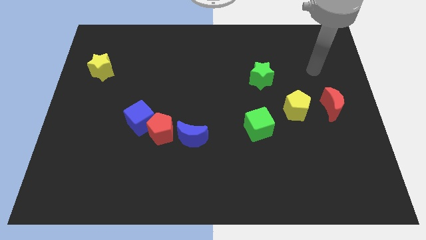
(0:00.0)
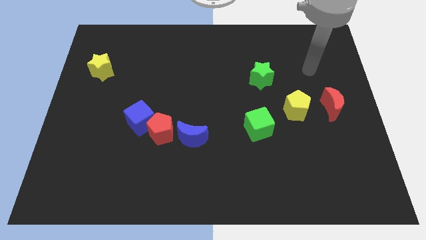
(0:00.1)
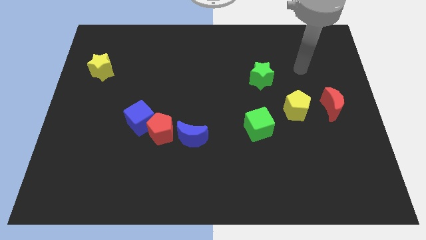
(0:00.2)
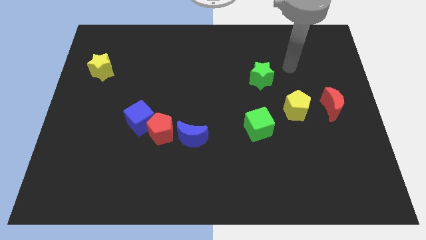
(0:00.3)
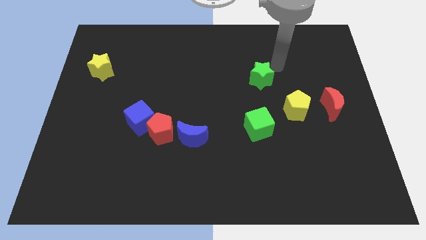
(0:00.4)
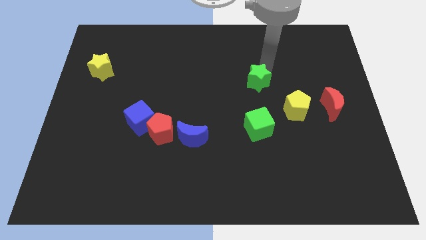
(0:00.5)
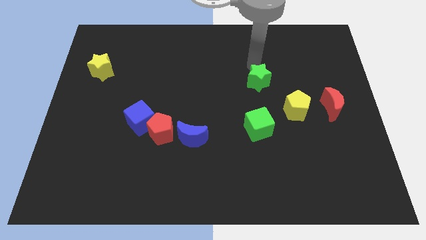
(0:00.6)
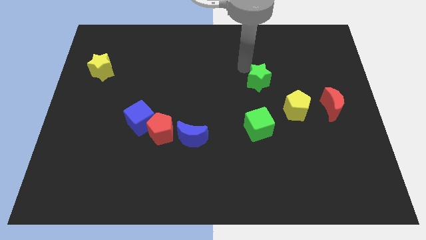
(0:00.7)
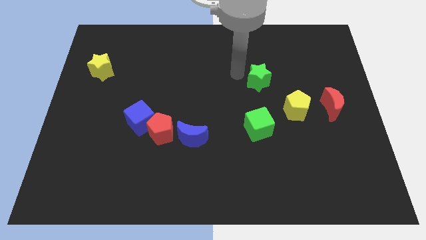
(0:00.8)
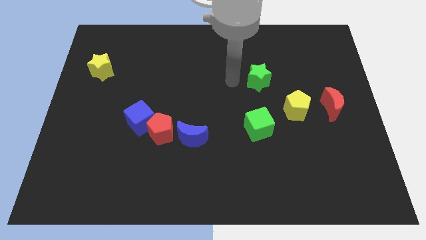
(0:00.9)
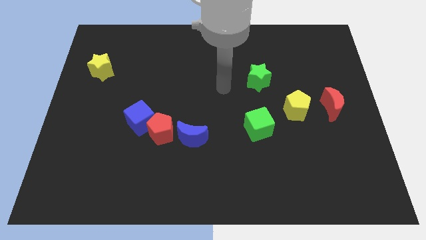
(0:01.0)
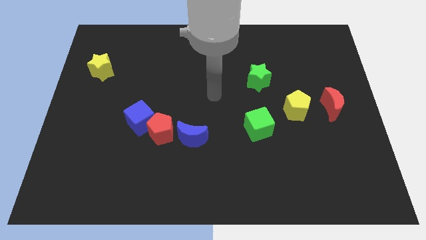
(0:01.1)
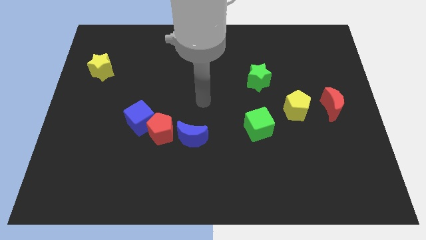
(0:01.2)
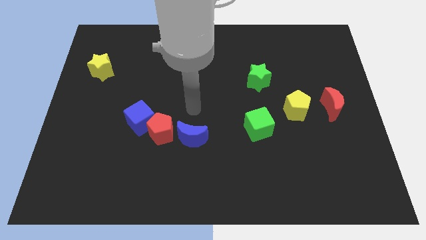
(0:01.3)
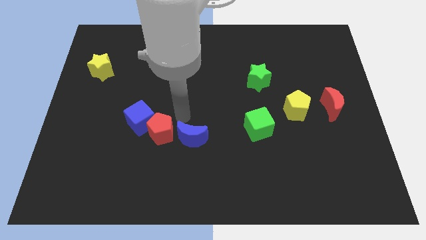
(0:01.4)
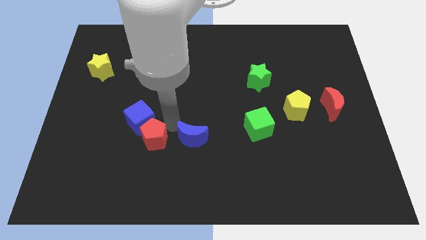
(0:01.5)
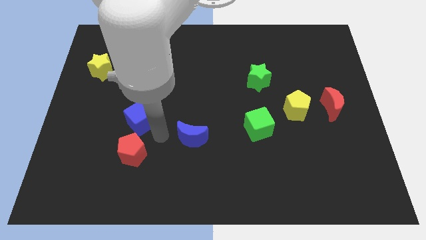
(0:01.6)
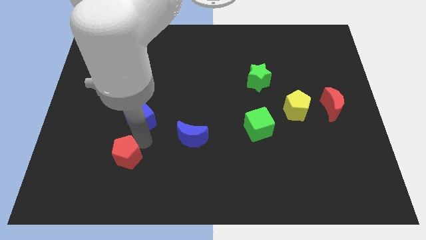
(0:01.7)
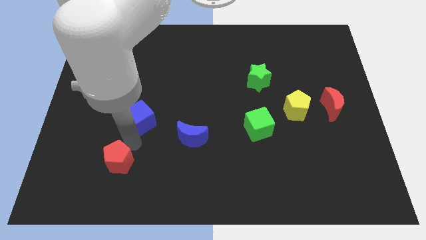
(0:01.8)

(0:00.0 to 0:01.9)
pull the blue cube apart from the red pentagon

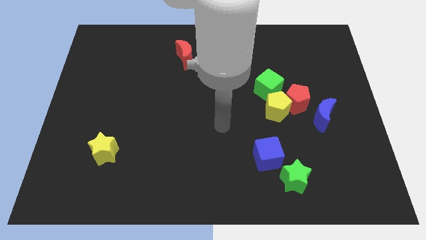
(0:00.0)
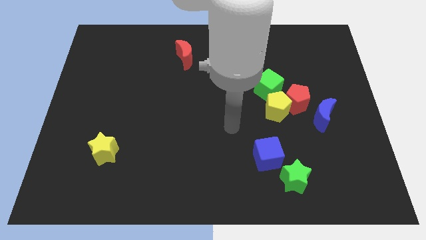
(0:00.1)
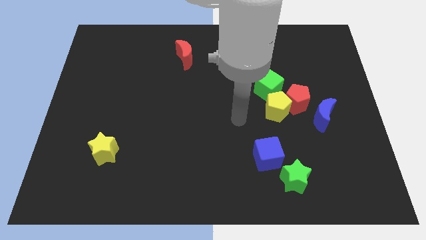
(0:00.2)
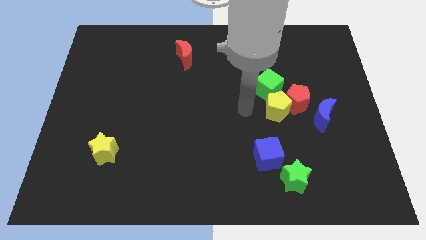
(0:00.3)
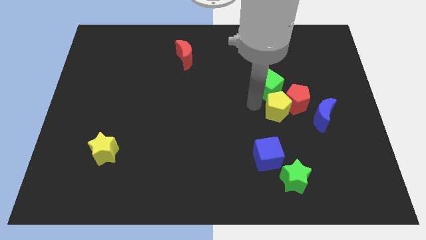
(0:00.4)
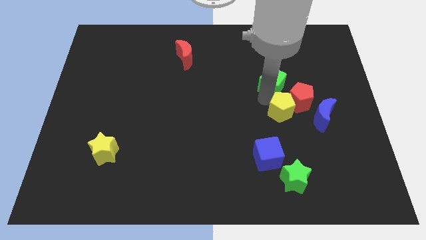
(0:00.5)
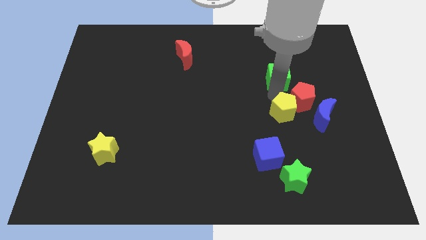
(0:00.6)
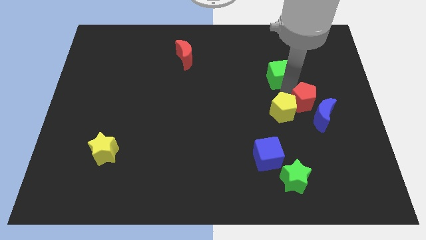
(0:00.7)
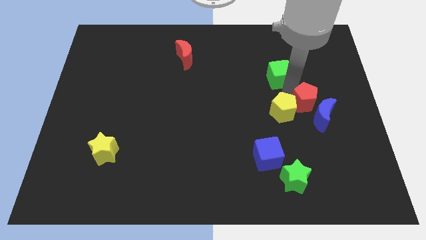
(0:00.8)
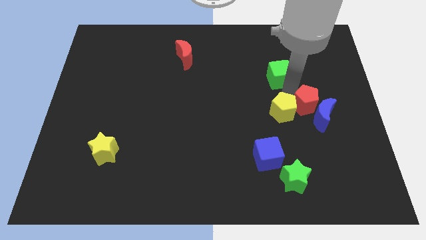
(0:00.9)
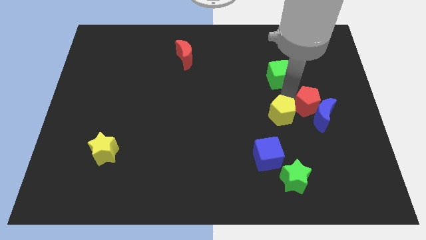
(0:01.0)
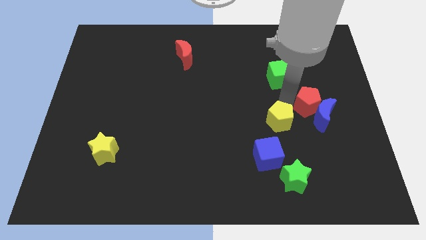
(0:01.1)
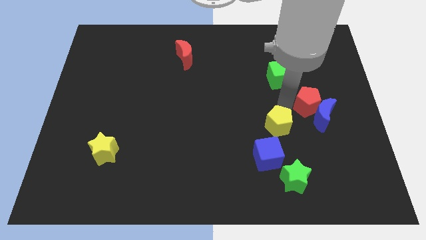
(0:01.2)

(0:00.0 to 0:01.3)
move the yellow pentagon away from the red pentagon and green cube

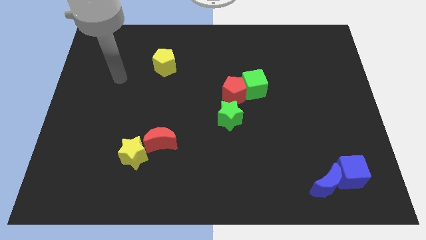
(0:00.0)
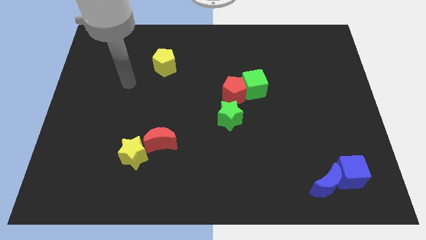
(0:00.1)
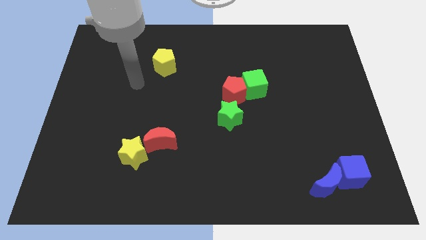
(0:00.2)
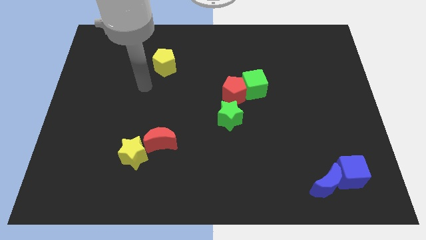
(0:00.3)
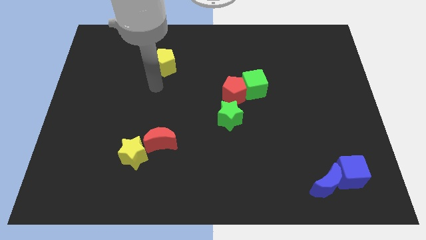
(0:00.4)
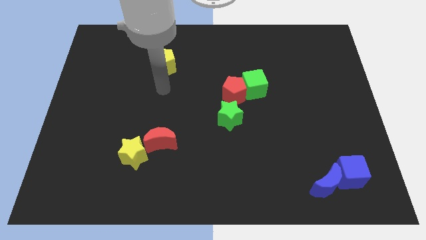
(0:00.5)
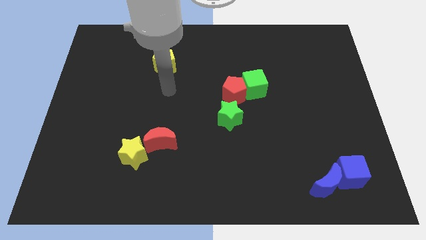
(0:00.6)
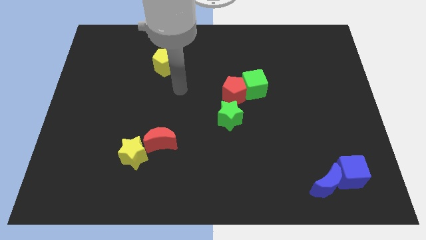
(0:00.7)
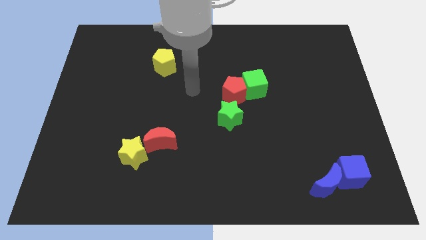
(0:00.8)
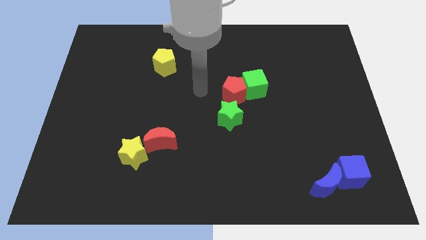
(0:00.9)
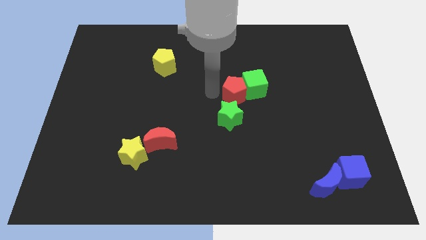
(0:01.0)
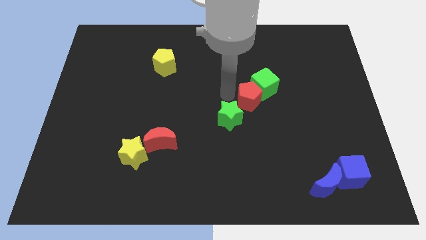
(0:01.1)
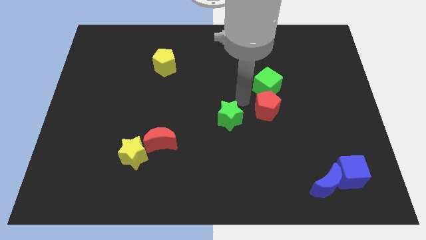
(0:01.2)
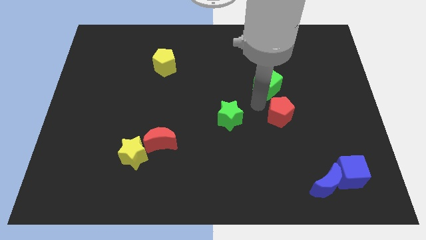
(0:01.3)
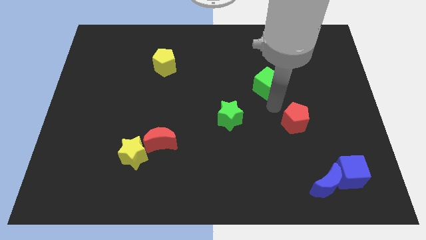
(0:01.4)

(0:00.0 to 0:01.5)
separate the green cube from the red pentagon

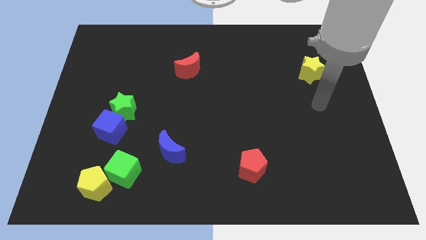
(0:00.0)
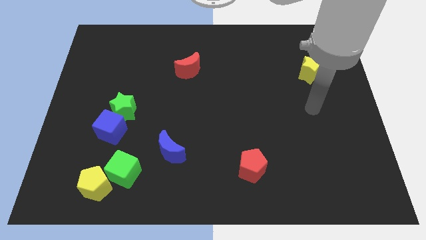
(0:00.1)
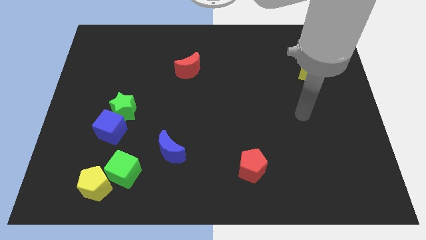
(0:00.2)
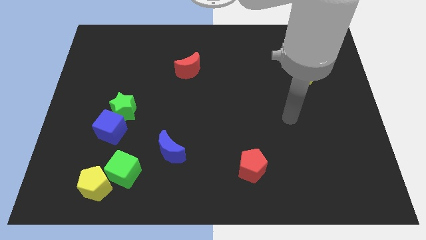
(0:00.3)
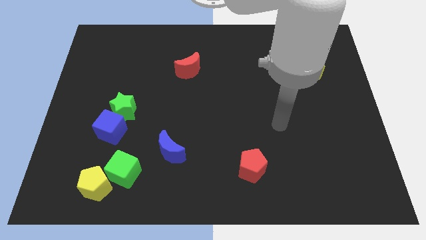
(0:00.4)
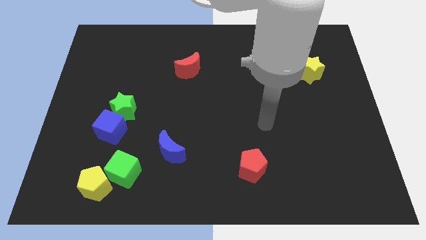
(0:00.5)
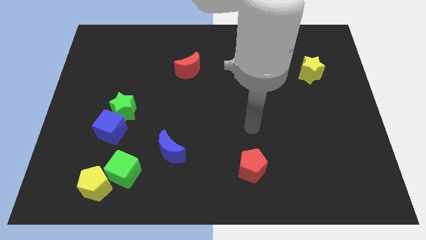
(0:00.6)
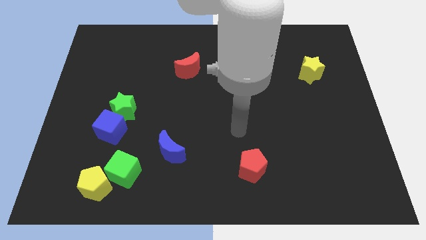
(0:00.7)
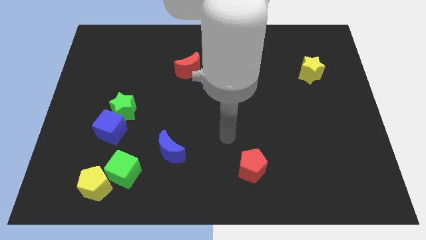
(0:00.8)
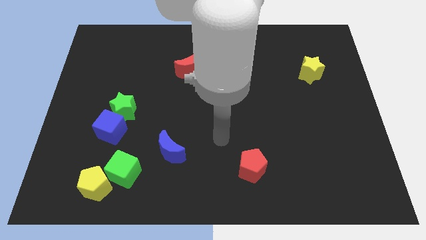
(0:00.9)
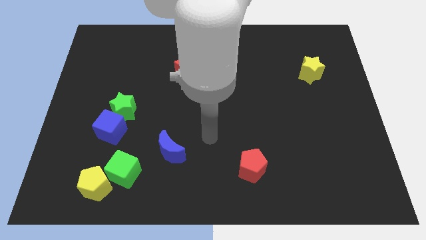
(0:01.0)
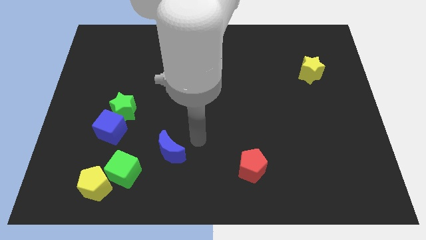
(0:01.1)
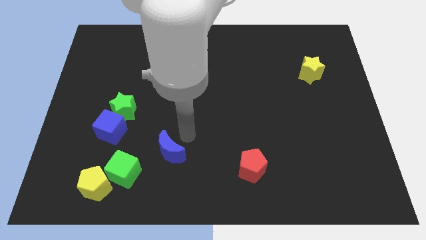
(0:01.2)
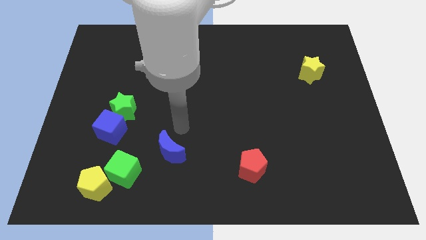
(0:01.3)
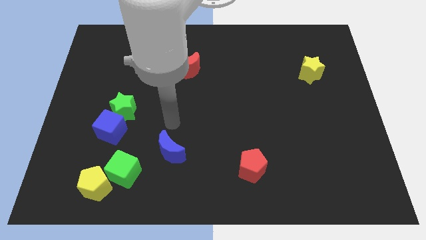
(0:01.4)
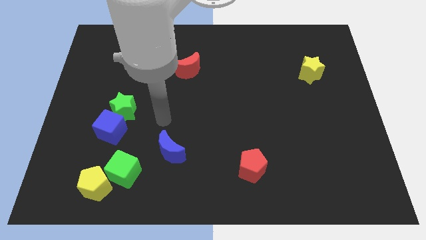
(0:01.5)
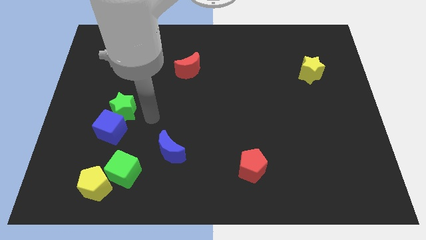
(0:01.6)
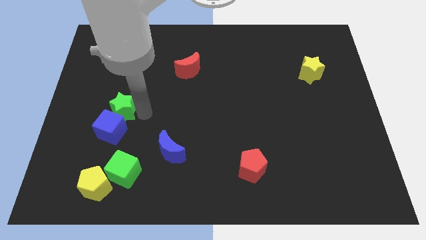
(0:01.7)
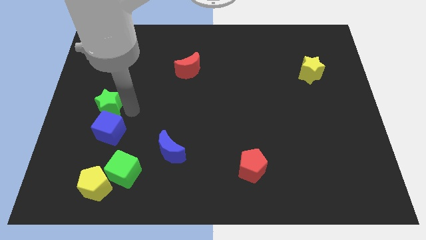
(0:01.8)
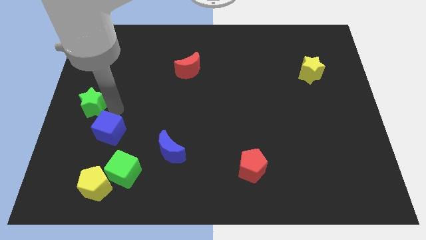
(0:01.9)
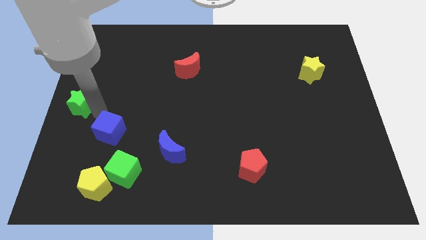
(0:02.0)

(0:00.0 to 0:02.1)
separate the blue cube from the green star

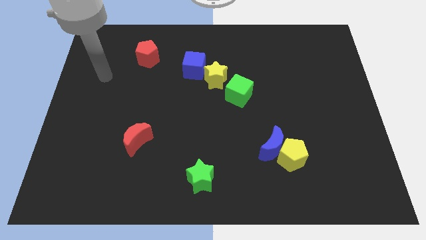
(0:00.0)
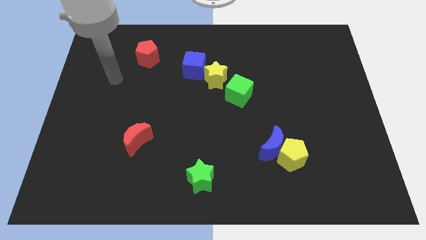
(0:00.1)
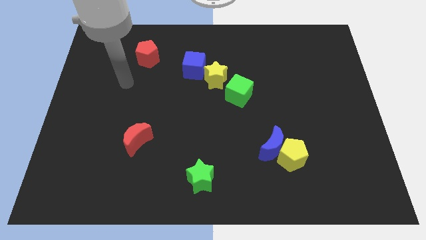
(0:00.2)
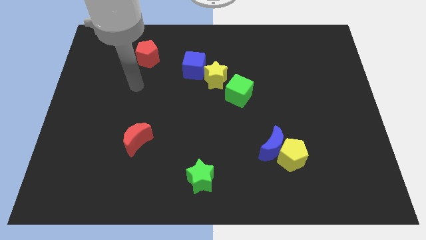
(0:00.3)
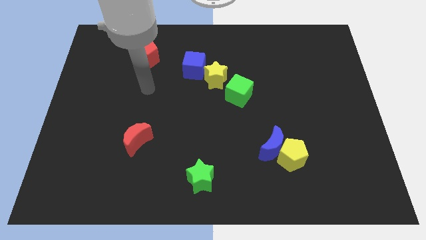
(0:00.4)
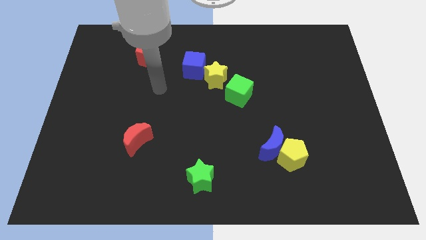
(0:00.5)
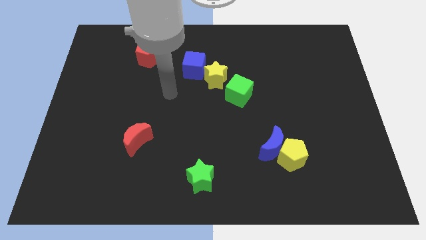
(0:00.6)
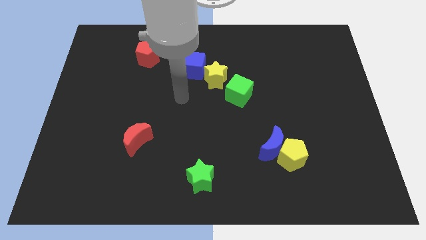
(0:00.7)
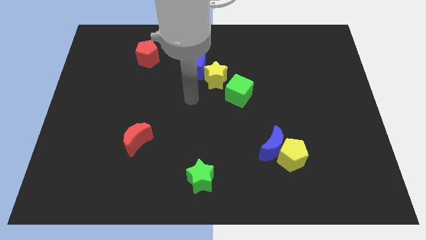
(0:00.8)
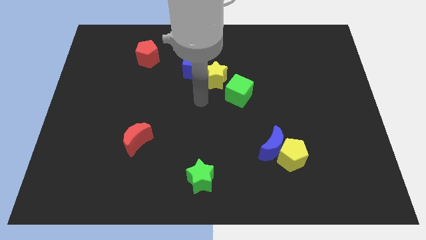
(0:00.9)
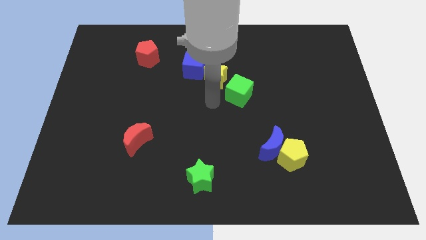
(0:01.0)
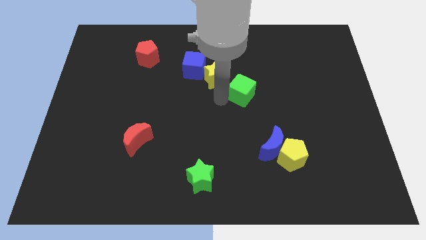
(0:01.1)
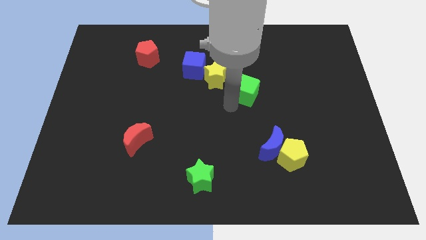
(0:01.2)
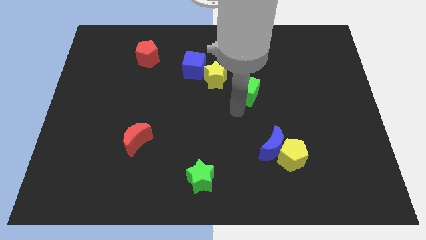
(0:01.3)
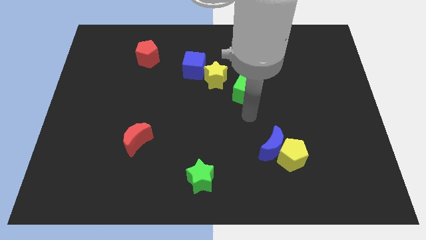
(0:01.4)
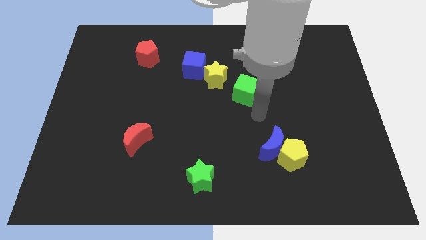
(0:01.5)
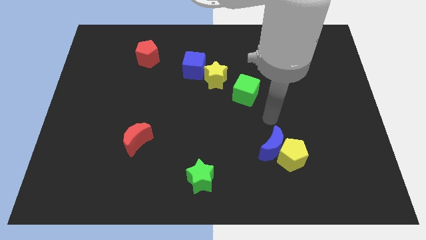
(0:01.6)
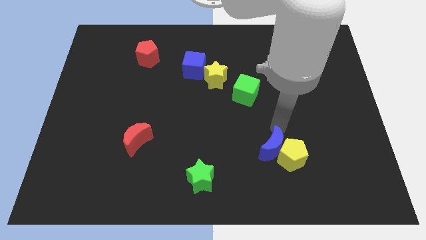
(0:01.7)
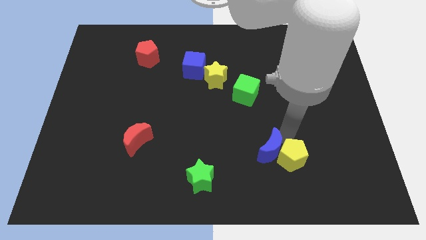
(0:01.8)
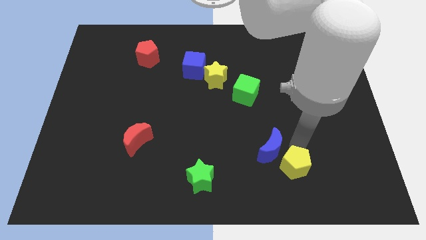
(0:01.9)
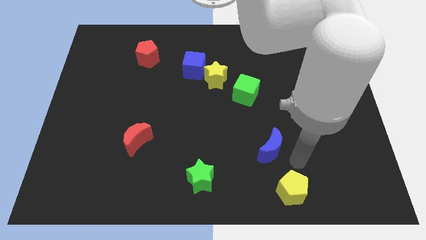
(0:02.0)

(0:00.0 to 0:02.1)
separate the blue moon from the yellow pentagon

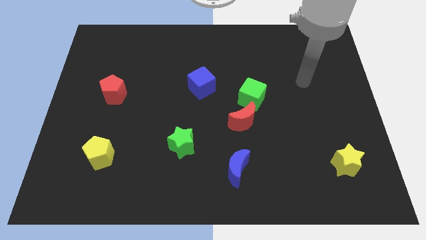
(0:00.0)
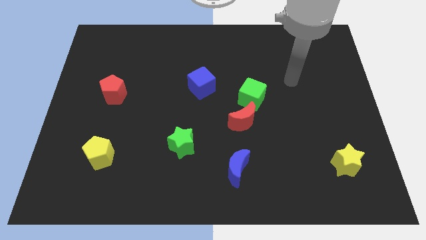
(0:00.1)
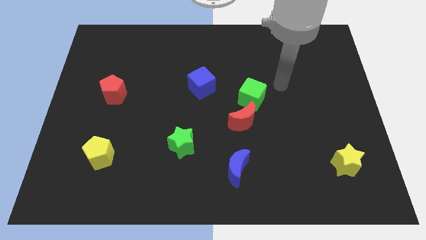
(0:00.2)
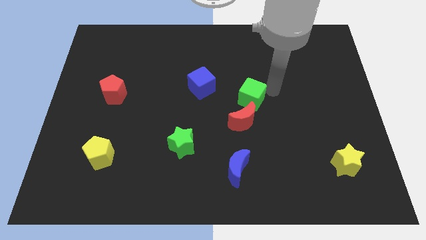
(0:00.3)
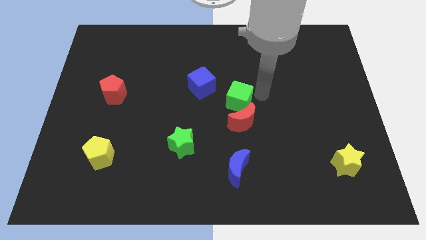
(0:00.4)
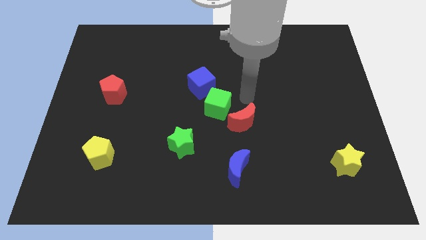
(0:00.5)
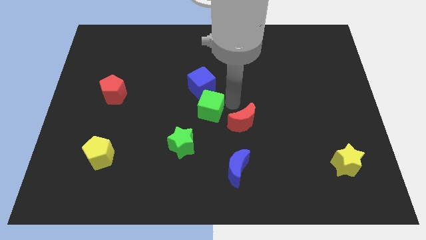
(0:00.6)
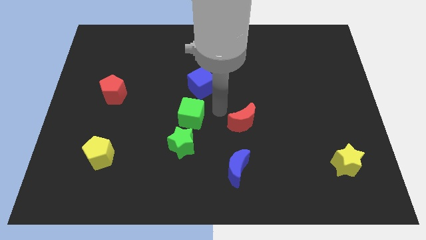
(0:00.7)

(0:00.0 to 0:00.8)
pull the red moon apart from the green cube
